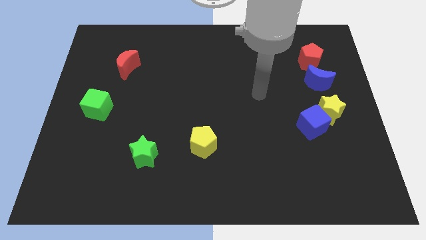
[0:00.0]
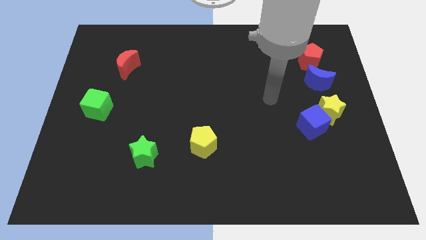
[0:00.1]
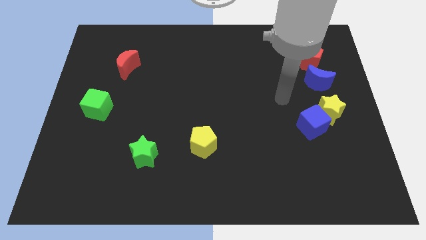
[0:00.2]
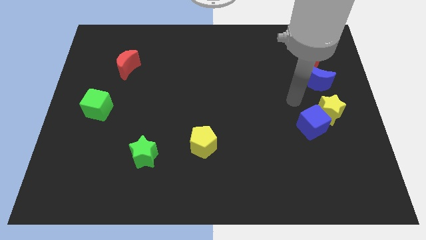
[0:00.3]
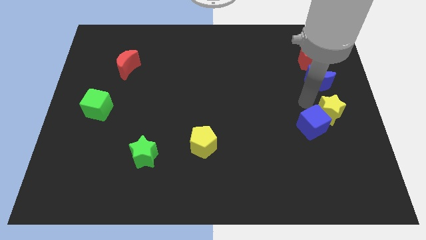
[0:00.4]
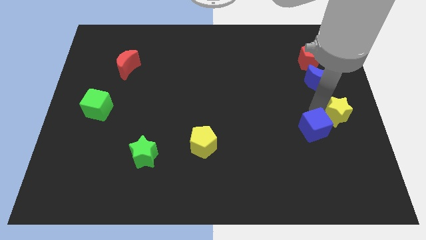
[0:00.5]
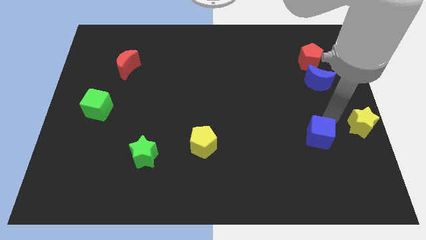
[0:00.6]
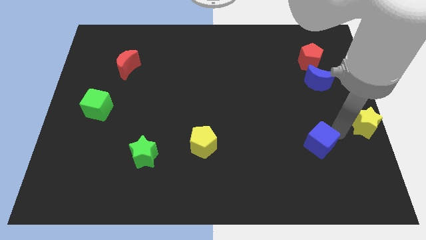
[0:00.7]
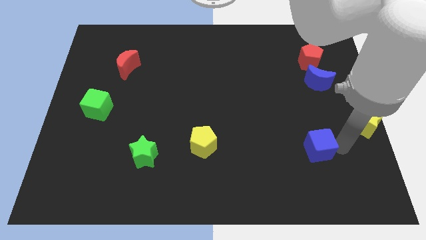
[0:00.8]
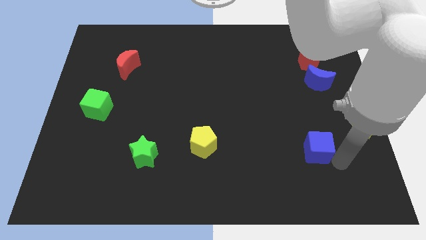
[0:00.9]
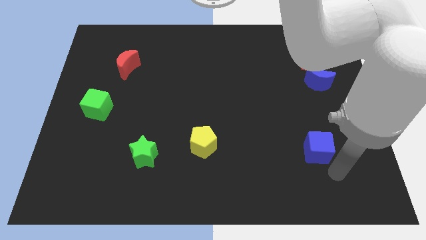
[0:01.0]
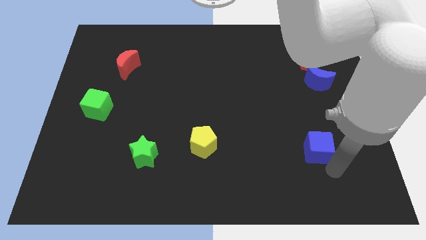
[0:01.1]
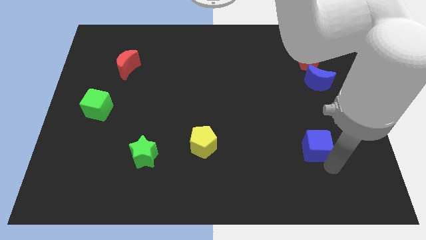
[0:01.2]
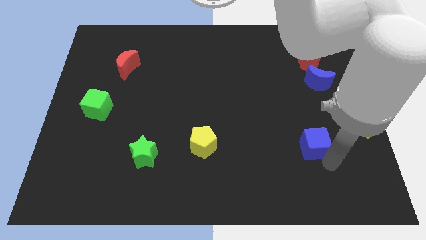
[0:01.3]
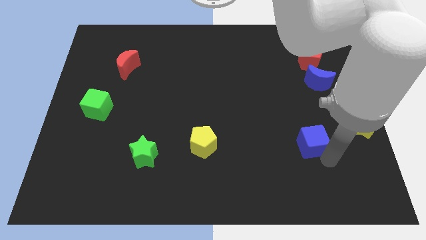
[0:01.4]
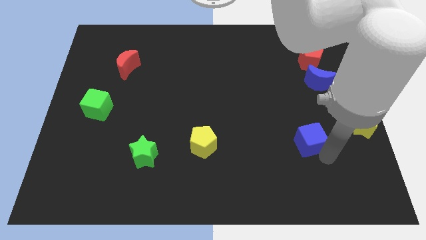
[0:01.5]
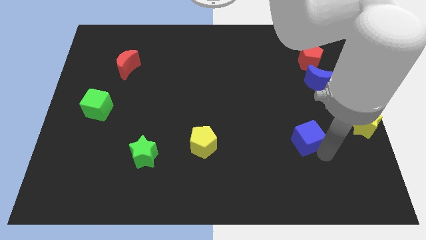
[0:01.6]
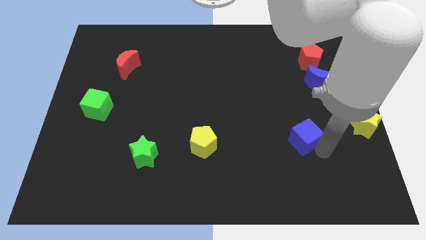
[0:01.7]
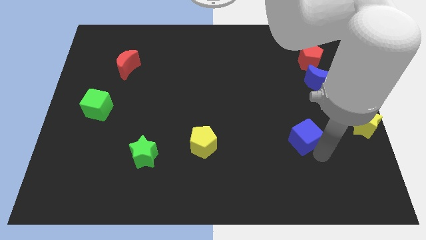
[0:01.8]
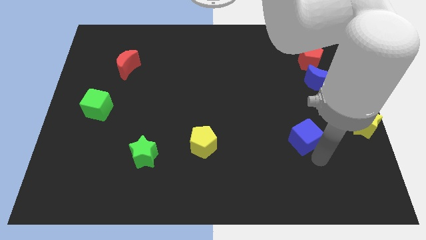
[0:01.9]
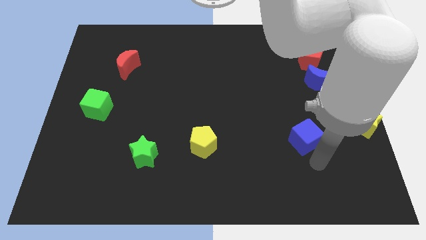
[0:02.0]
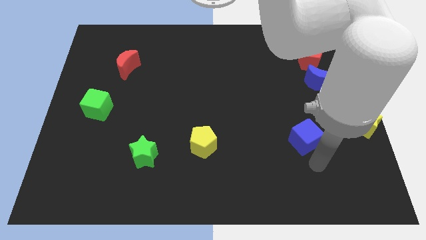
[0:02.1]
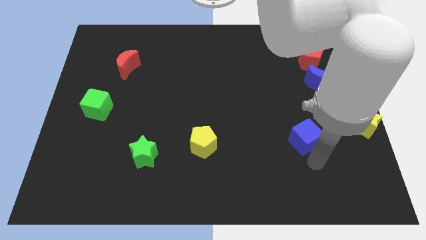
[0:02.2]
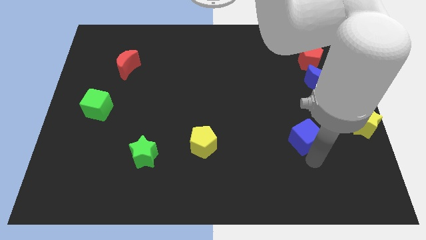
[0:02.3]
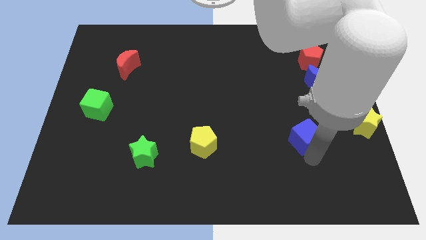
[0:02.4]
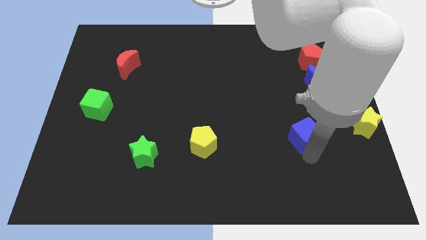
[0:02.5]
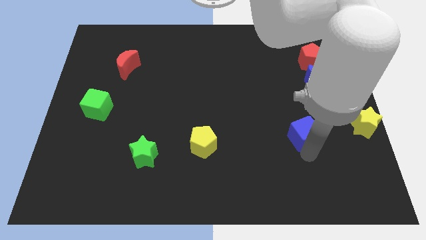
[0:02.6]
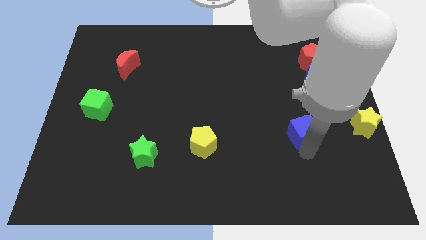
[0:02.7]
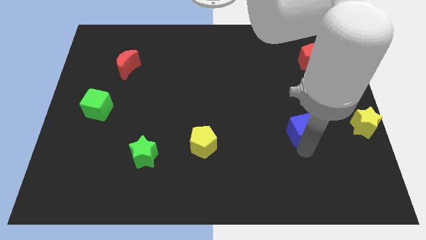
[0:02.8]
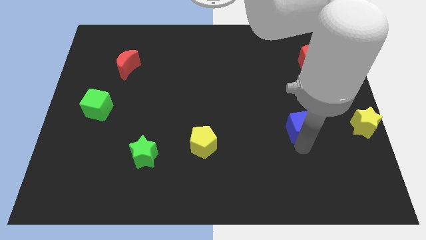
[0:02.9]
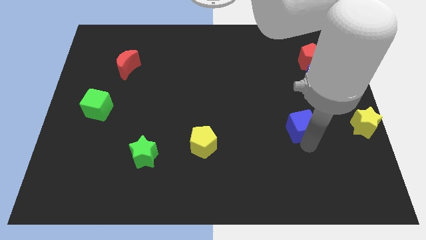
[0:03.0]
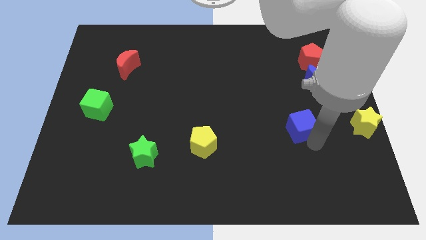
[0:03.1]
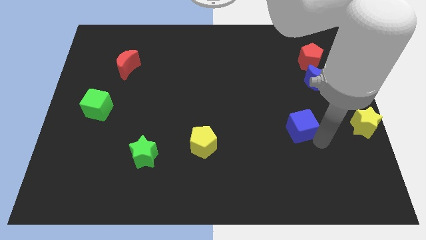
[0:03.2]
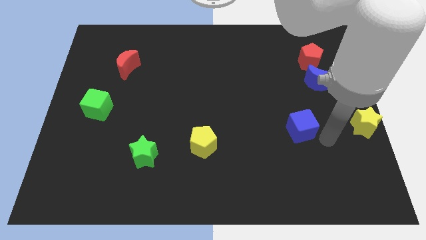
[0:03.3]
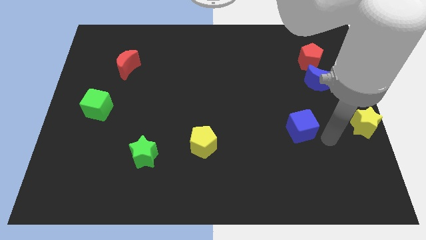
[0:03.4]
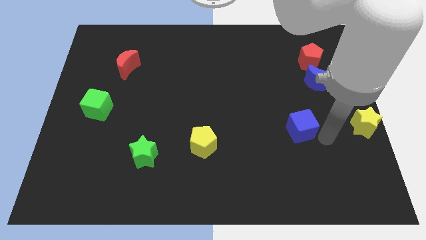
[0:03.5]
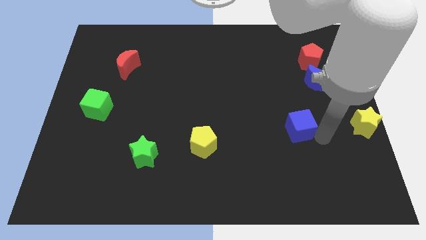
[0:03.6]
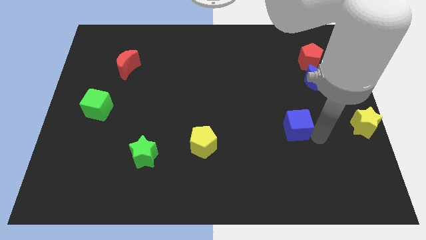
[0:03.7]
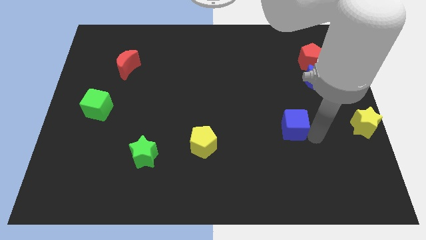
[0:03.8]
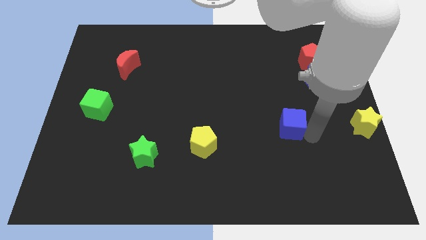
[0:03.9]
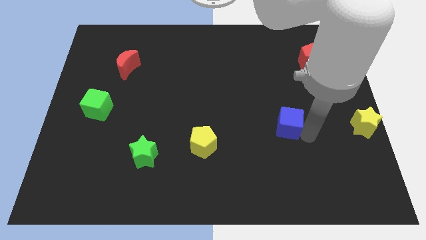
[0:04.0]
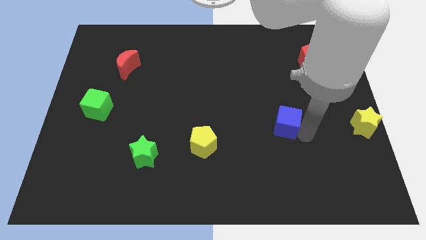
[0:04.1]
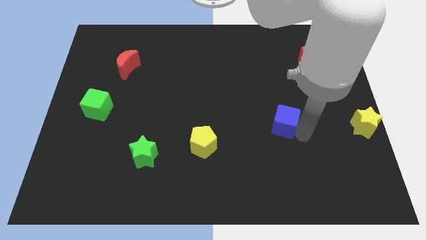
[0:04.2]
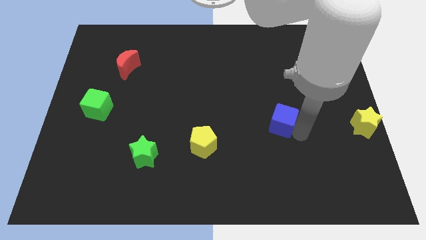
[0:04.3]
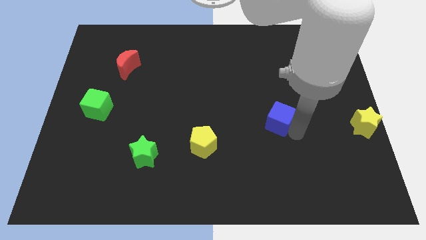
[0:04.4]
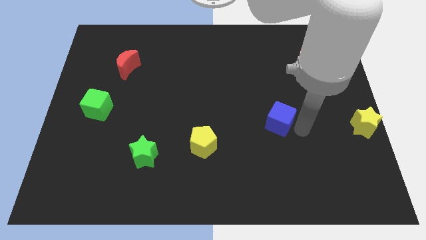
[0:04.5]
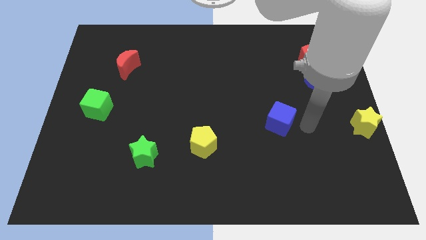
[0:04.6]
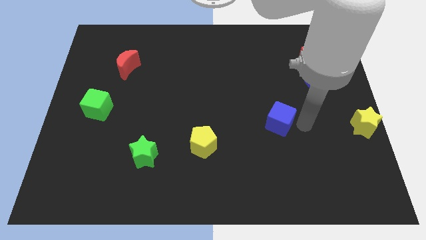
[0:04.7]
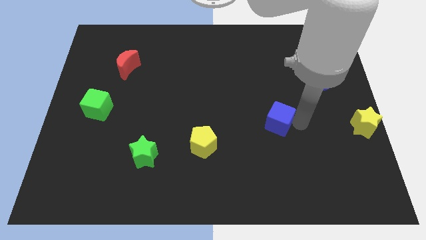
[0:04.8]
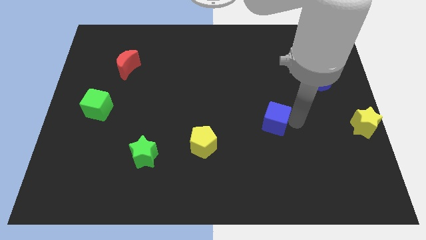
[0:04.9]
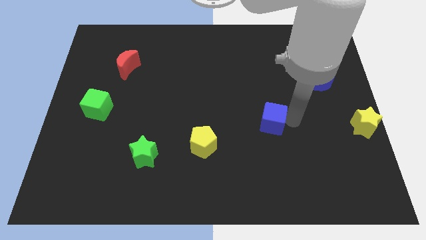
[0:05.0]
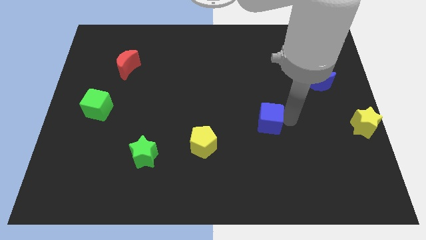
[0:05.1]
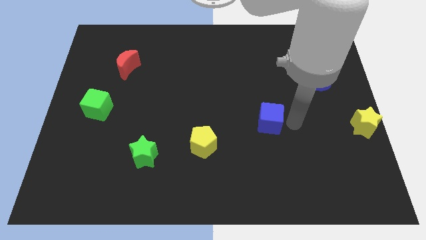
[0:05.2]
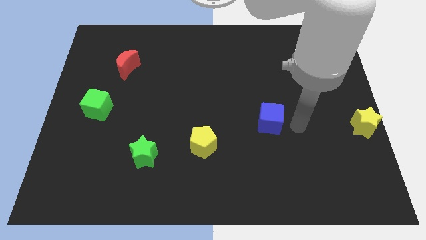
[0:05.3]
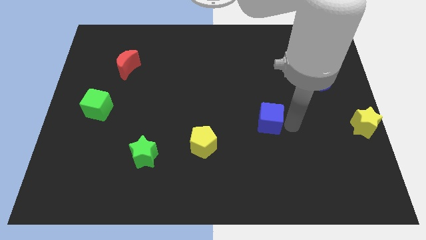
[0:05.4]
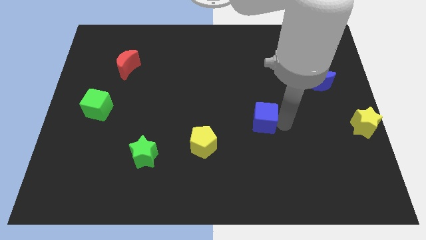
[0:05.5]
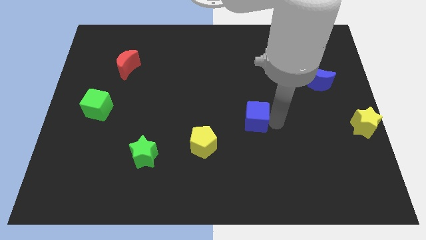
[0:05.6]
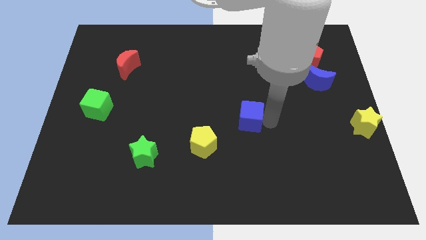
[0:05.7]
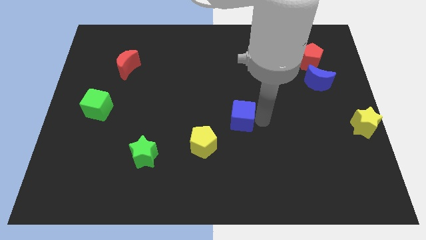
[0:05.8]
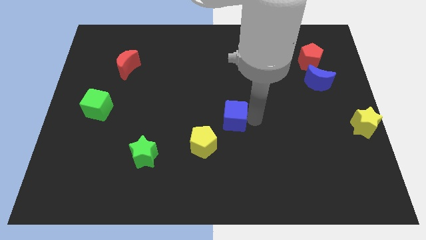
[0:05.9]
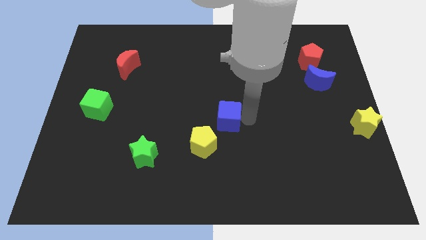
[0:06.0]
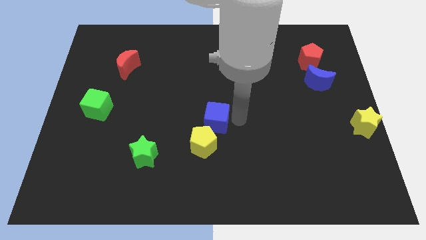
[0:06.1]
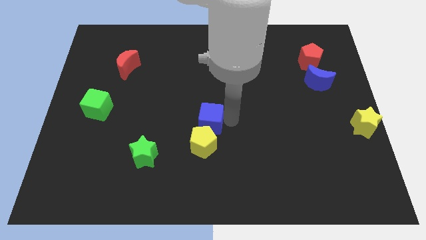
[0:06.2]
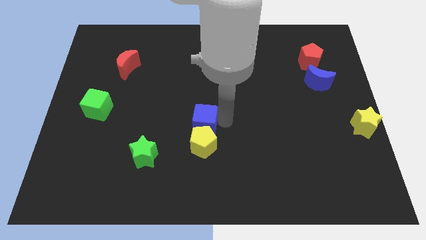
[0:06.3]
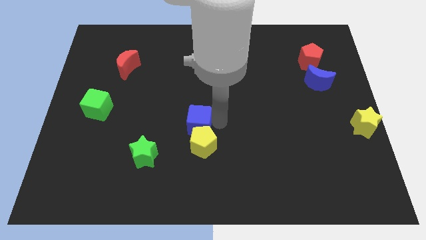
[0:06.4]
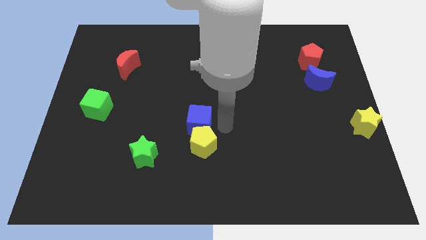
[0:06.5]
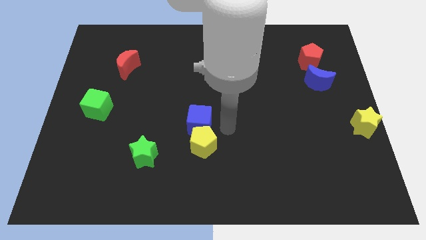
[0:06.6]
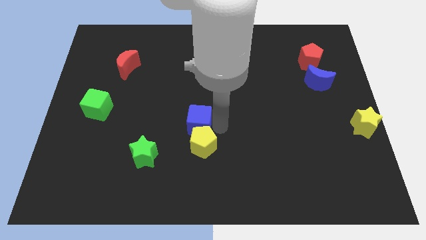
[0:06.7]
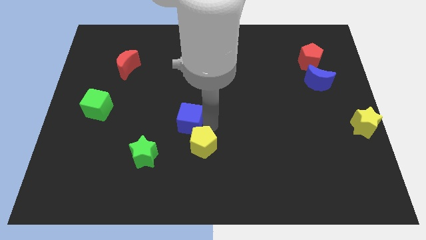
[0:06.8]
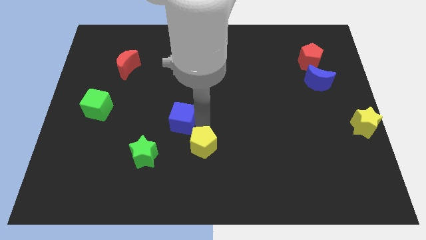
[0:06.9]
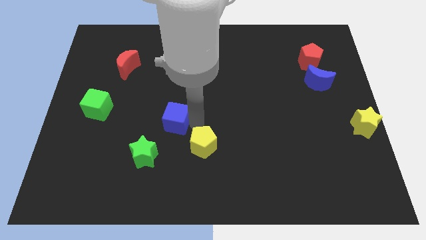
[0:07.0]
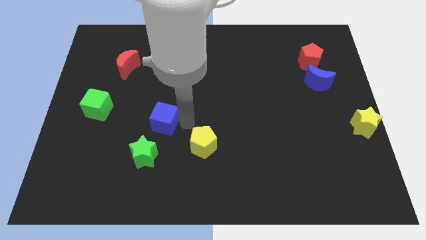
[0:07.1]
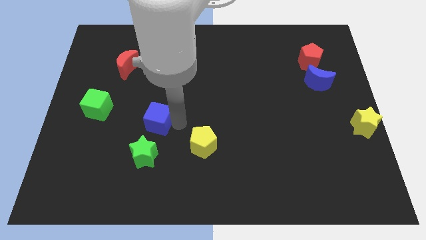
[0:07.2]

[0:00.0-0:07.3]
push the blue cube to the right of the green cube
